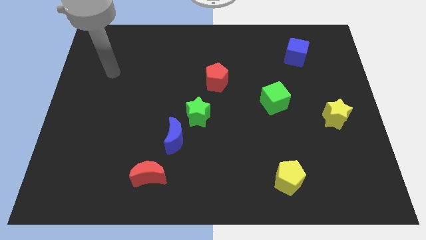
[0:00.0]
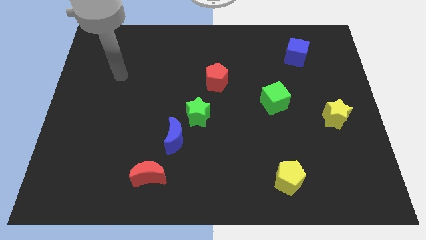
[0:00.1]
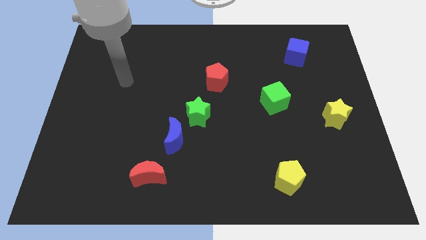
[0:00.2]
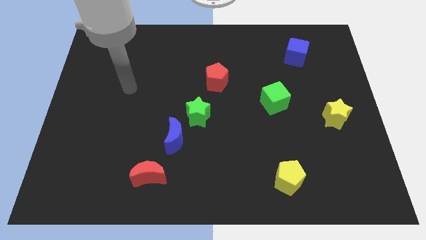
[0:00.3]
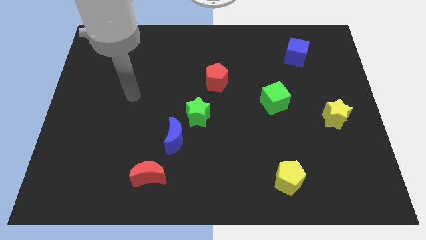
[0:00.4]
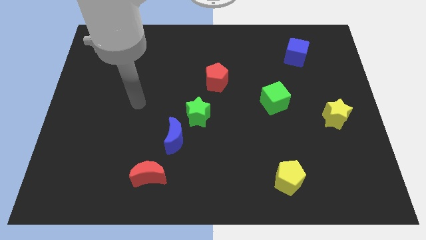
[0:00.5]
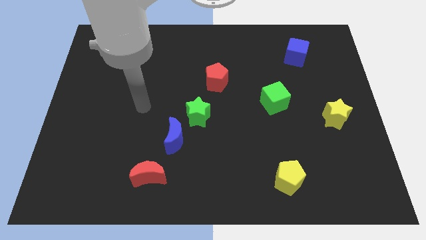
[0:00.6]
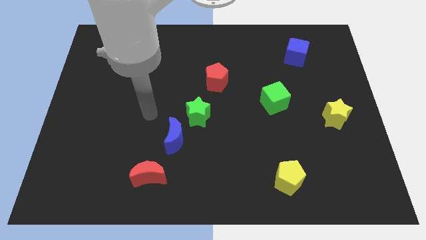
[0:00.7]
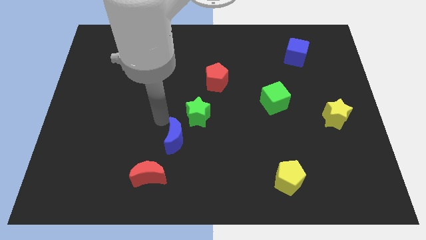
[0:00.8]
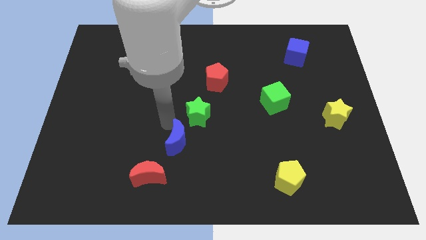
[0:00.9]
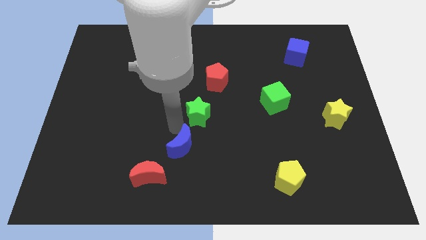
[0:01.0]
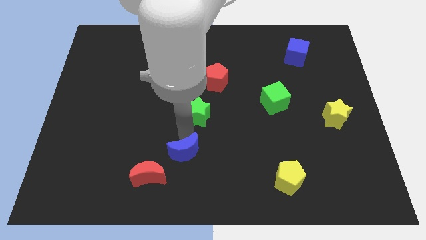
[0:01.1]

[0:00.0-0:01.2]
pull the green star apart from the blue moon

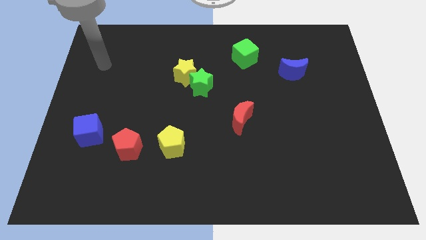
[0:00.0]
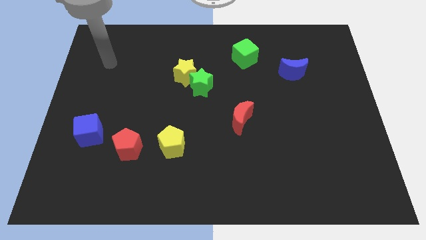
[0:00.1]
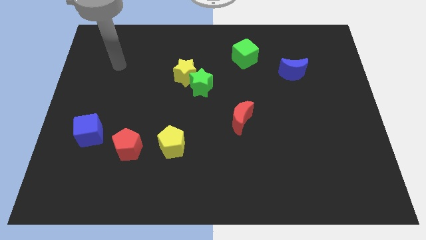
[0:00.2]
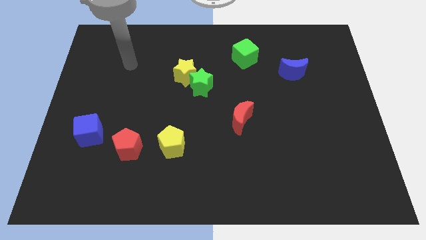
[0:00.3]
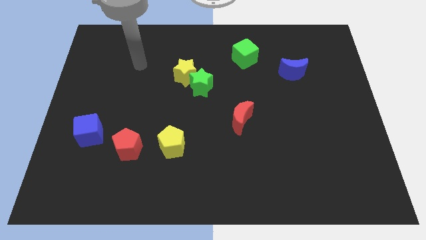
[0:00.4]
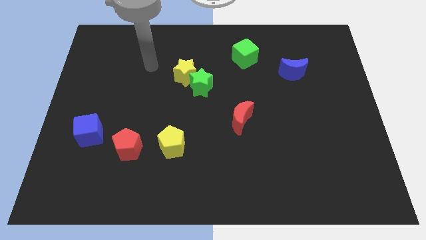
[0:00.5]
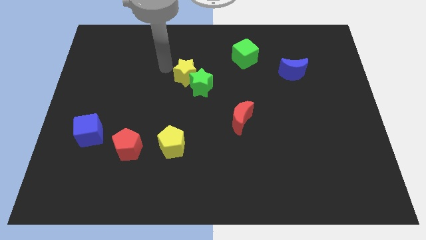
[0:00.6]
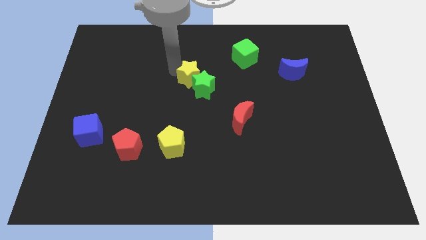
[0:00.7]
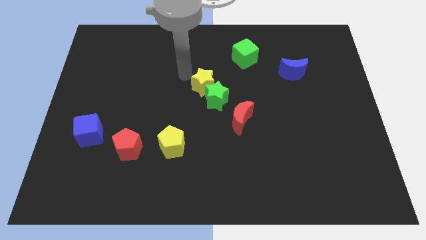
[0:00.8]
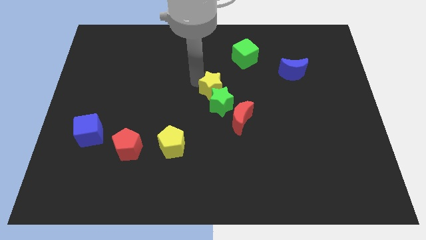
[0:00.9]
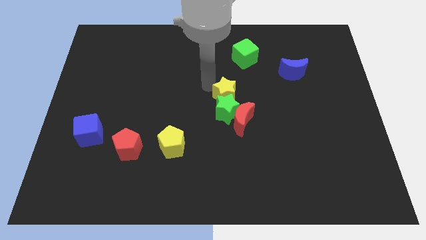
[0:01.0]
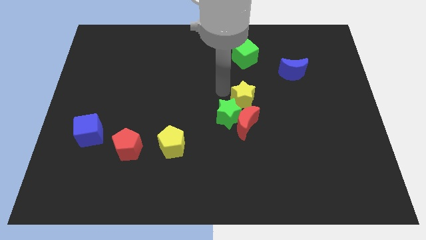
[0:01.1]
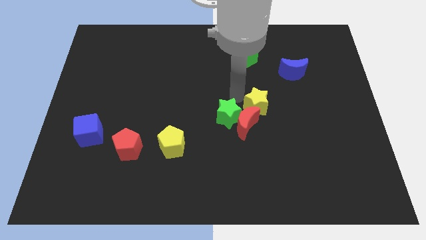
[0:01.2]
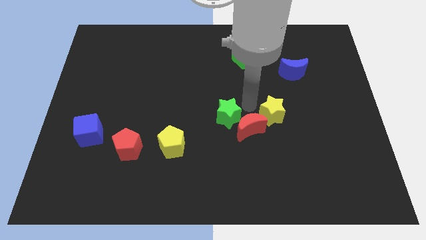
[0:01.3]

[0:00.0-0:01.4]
pull the green star apart from the yellow star

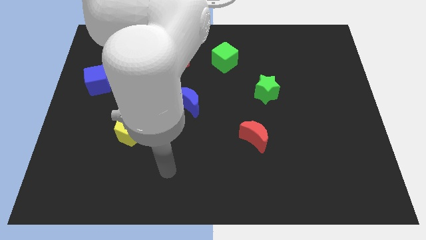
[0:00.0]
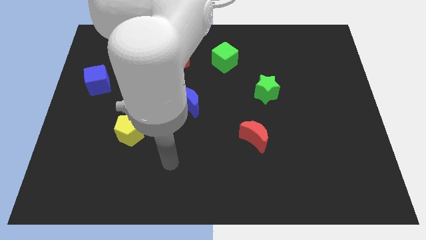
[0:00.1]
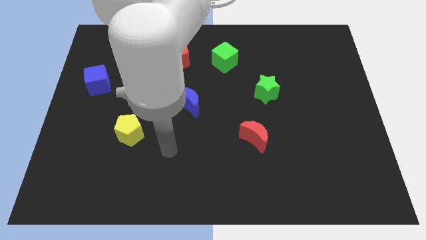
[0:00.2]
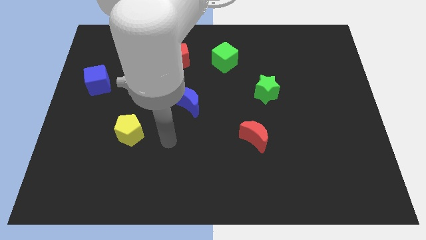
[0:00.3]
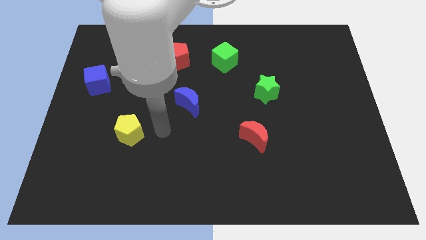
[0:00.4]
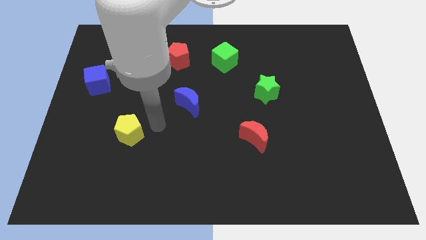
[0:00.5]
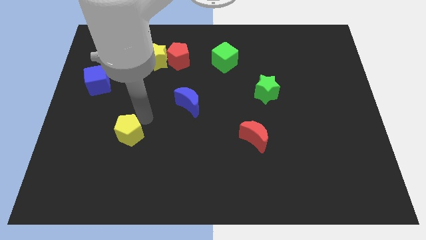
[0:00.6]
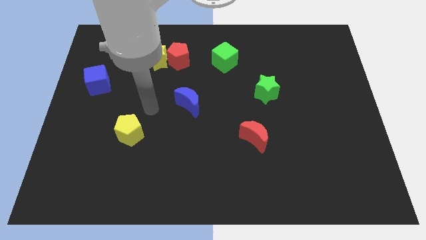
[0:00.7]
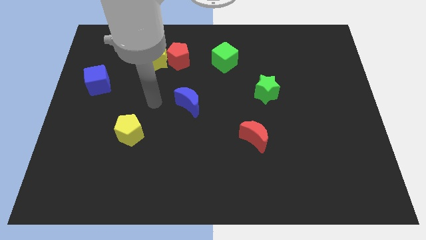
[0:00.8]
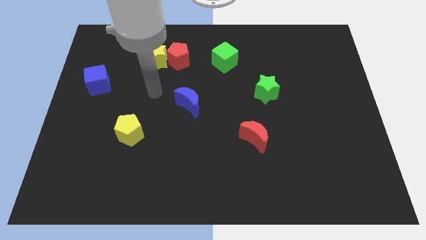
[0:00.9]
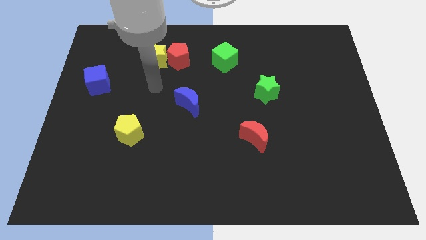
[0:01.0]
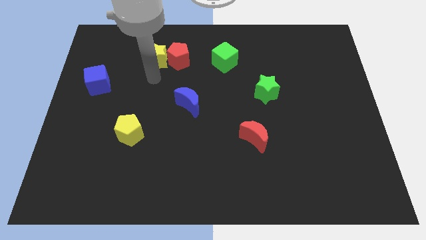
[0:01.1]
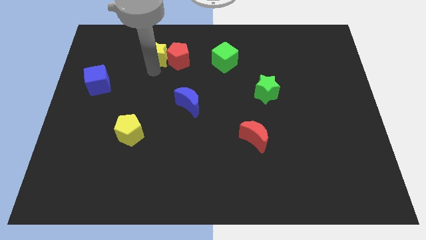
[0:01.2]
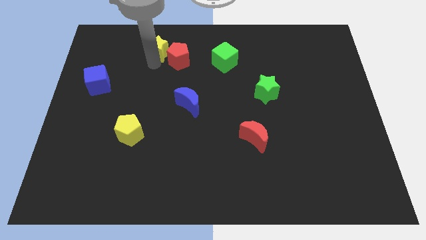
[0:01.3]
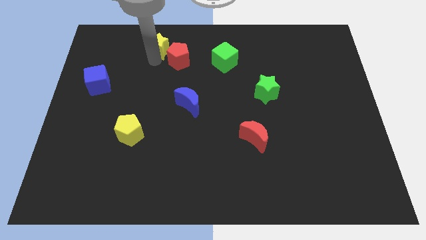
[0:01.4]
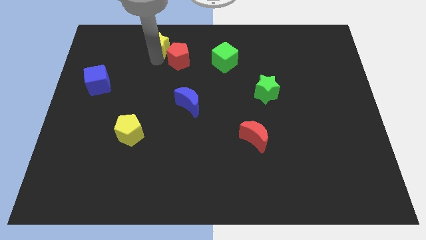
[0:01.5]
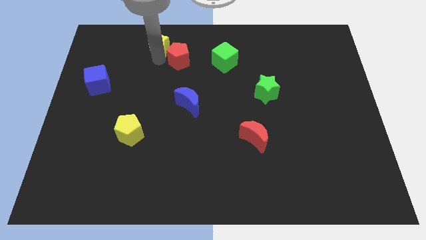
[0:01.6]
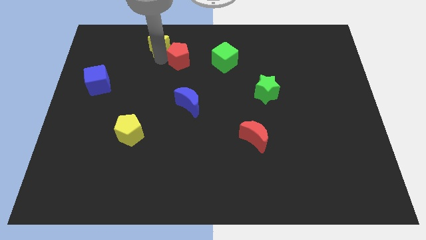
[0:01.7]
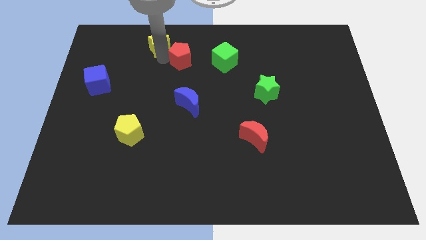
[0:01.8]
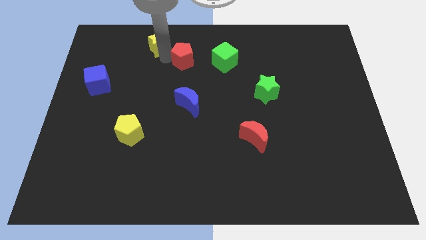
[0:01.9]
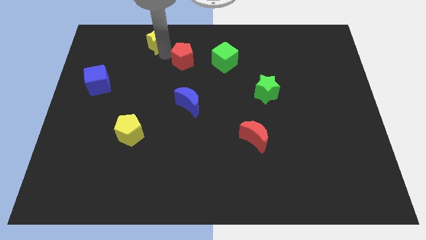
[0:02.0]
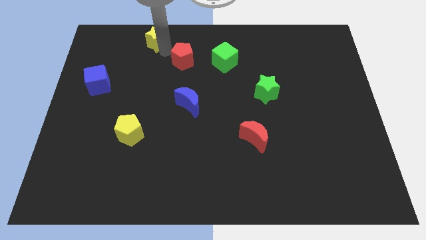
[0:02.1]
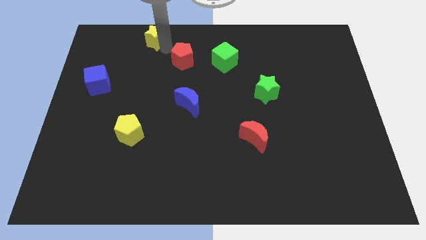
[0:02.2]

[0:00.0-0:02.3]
separate the red pentagon from the yellow star

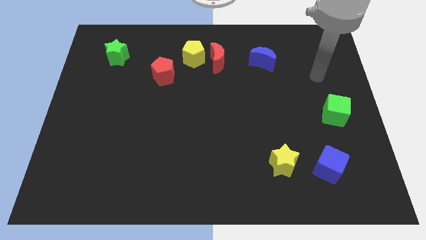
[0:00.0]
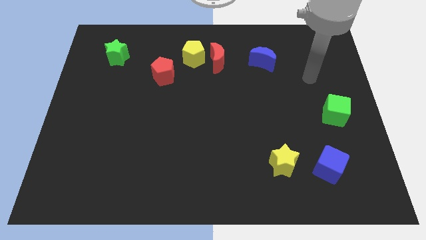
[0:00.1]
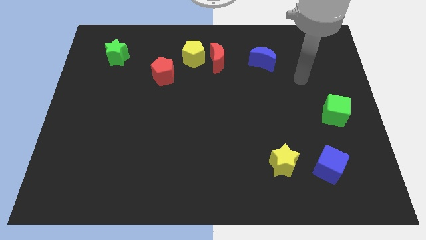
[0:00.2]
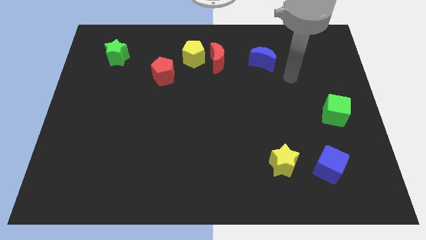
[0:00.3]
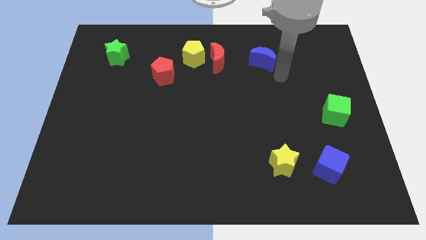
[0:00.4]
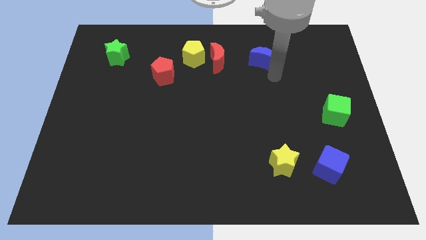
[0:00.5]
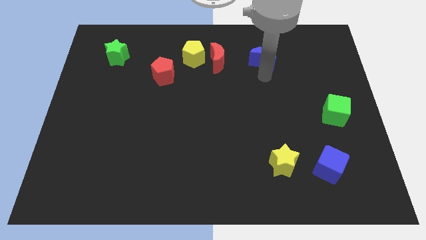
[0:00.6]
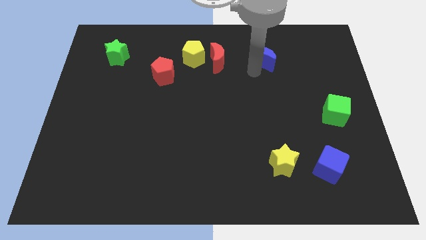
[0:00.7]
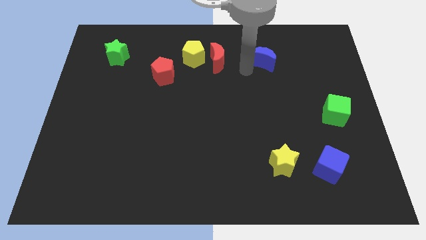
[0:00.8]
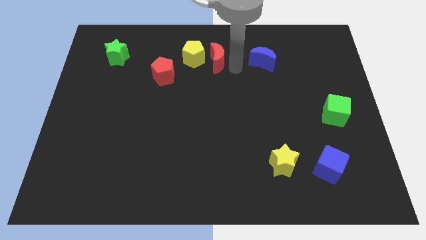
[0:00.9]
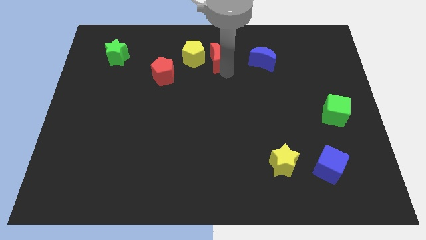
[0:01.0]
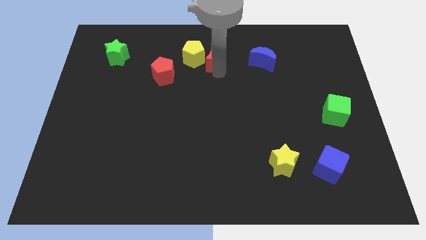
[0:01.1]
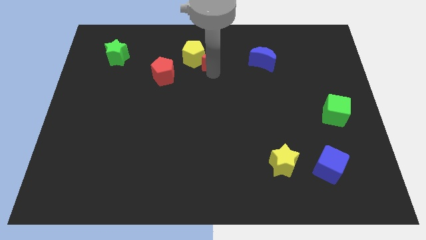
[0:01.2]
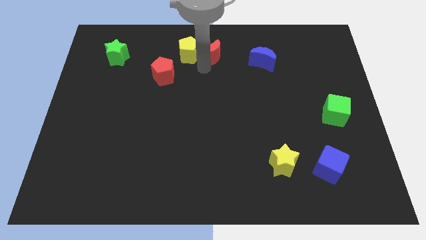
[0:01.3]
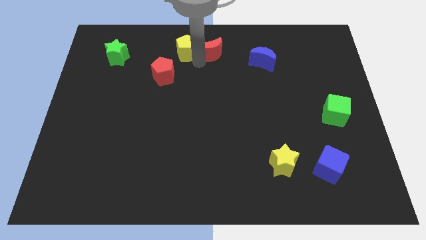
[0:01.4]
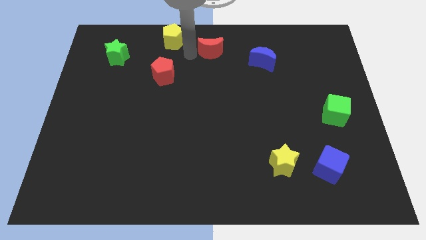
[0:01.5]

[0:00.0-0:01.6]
pull the red moon apart from the yellow pentagon

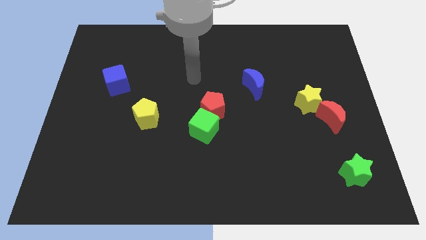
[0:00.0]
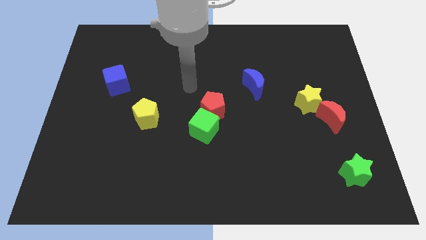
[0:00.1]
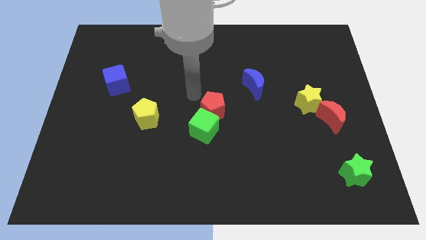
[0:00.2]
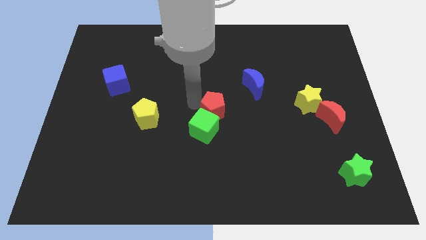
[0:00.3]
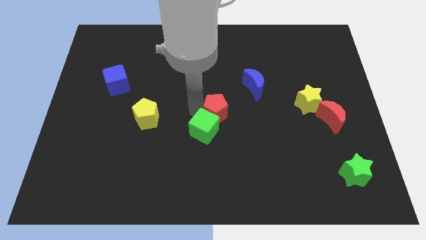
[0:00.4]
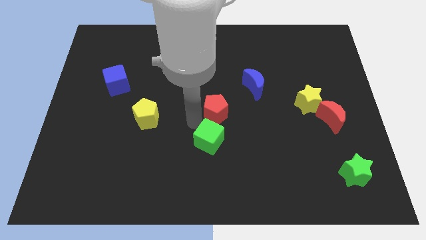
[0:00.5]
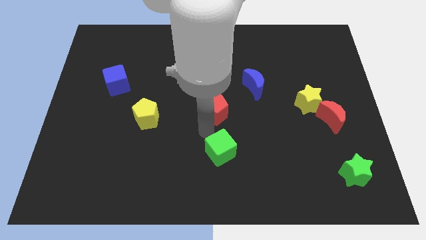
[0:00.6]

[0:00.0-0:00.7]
separate the red pentagon from the green cube

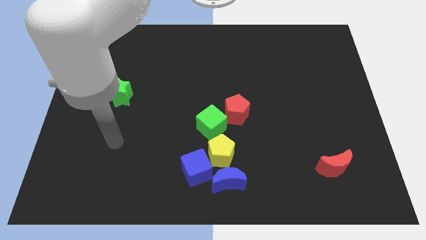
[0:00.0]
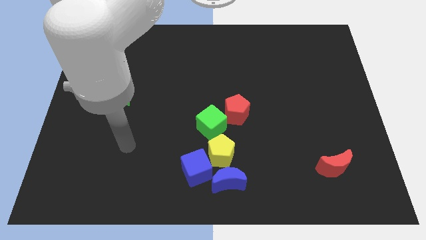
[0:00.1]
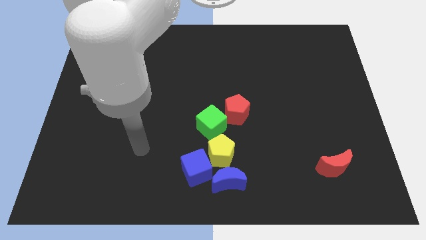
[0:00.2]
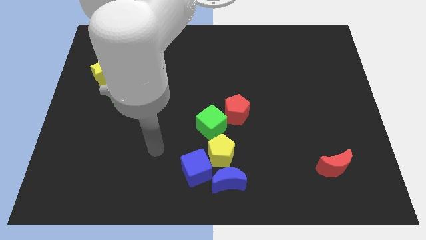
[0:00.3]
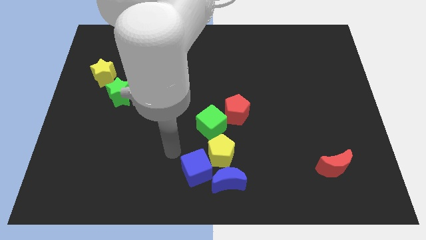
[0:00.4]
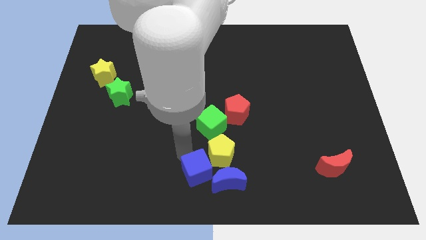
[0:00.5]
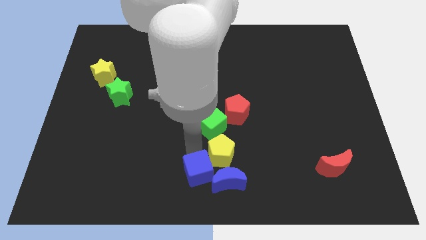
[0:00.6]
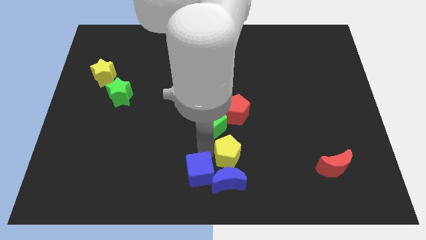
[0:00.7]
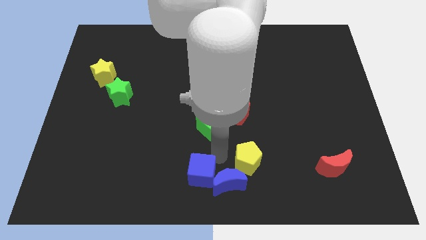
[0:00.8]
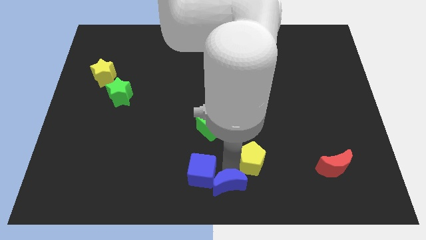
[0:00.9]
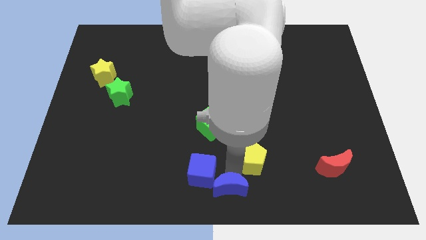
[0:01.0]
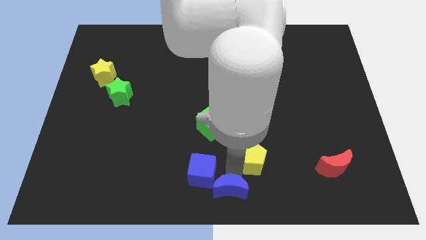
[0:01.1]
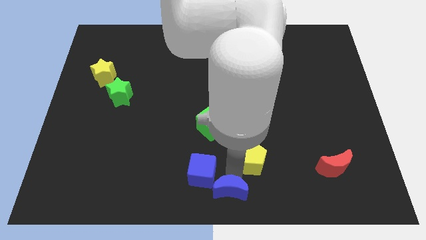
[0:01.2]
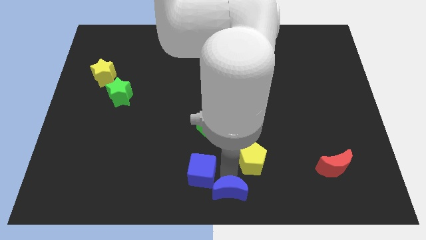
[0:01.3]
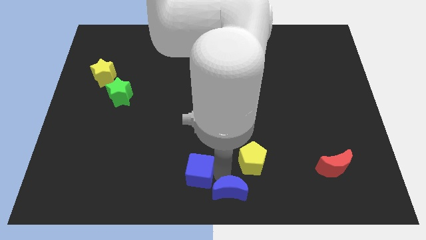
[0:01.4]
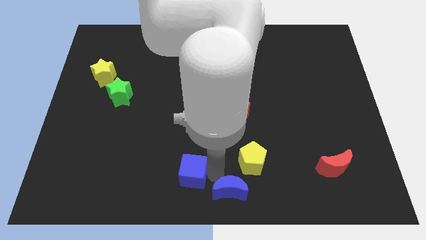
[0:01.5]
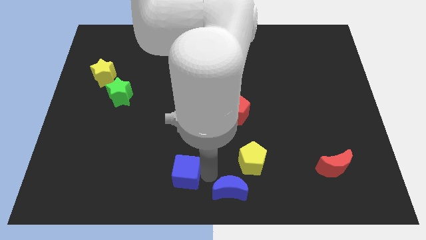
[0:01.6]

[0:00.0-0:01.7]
pull the blue cube apart from the yellow pentagon and blue moon

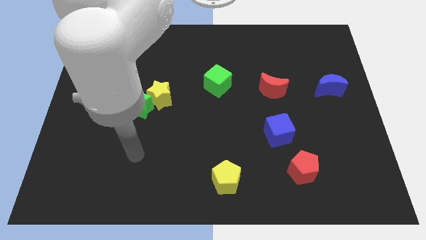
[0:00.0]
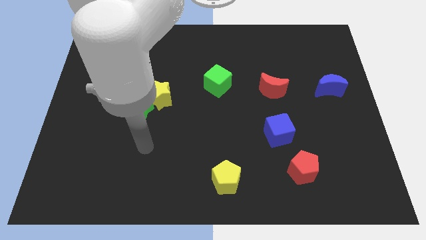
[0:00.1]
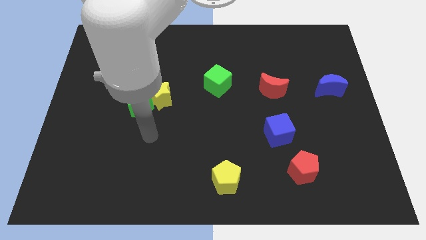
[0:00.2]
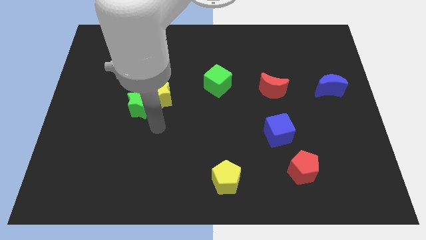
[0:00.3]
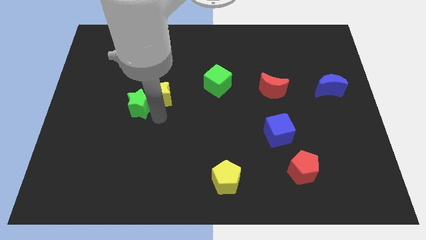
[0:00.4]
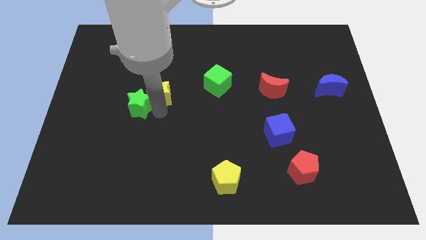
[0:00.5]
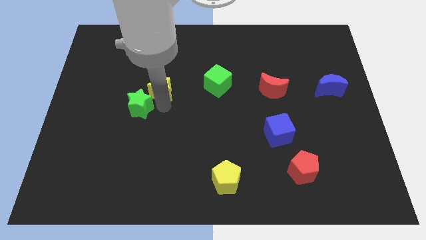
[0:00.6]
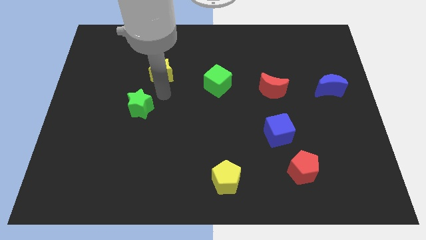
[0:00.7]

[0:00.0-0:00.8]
separate the green star from the yellow star
